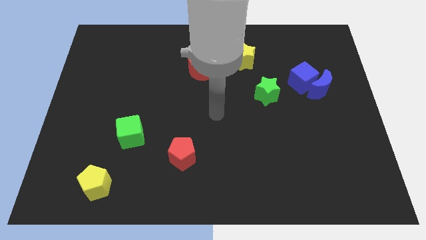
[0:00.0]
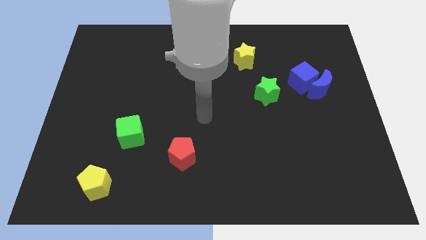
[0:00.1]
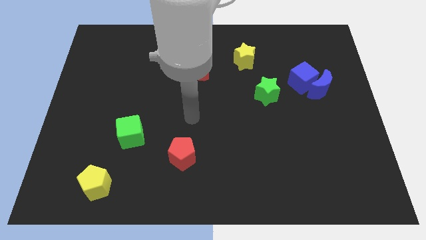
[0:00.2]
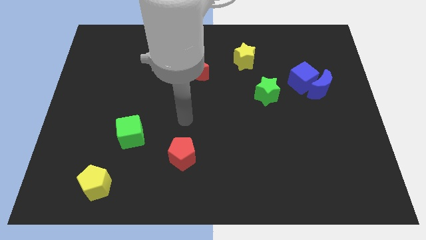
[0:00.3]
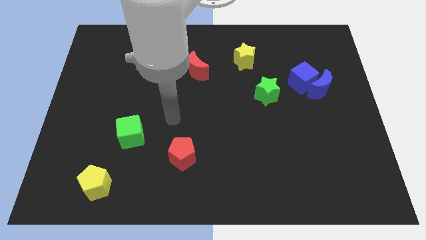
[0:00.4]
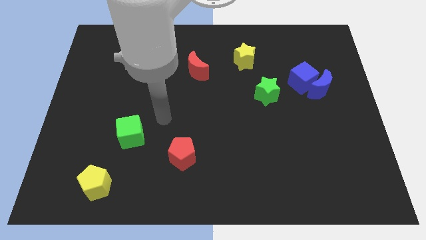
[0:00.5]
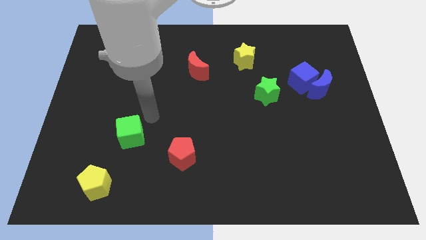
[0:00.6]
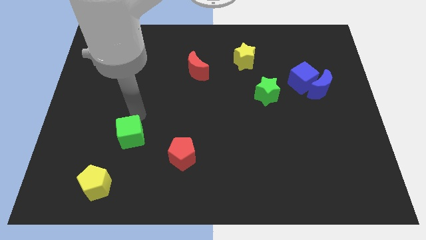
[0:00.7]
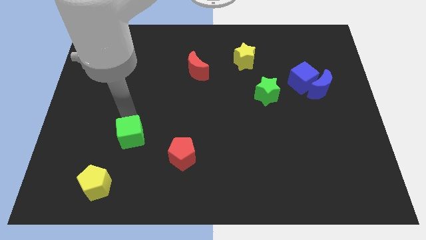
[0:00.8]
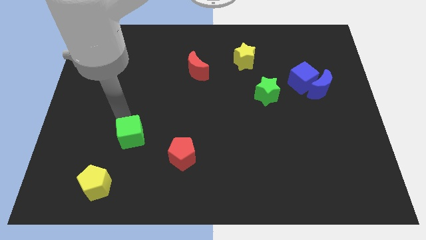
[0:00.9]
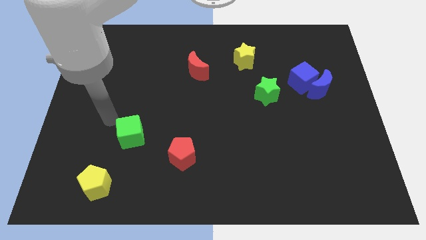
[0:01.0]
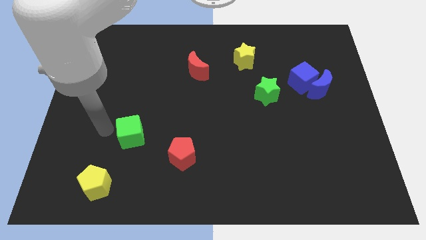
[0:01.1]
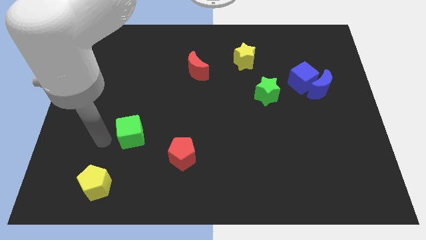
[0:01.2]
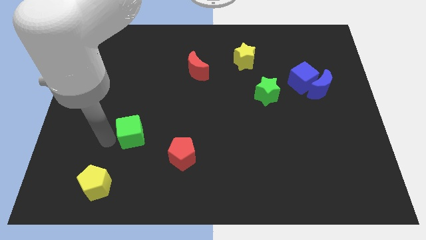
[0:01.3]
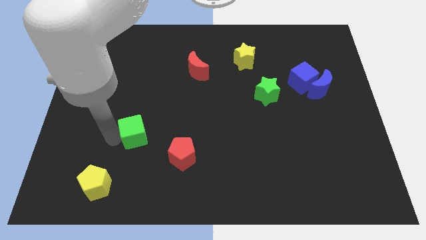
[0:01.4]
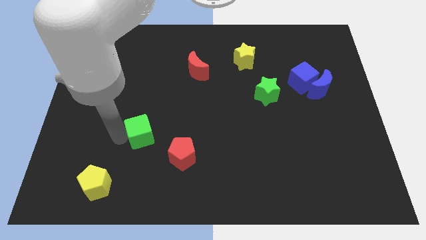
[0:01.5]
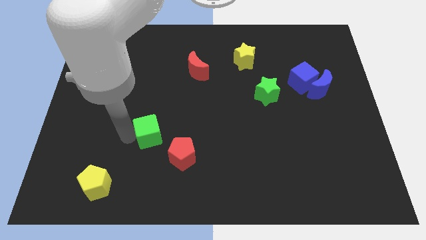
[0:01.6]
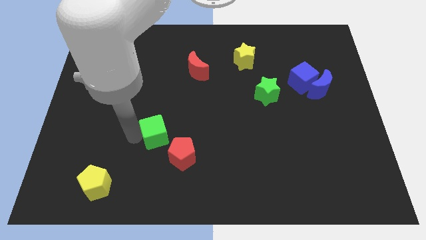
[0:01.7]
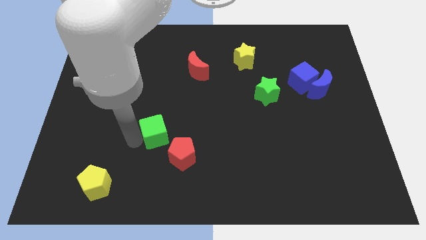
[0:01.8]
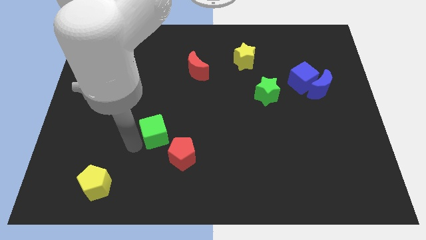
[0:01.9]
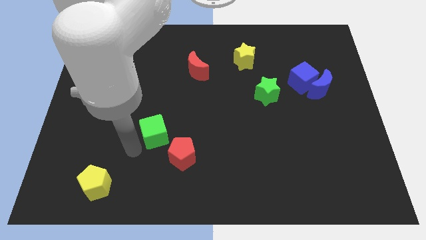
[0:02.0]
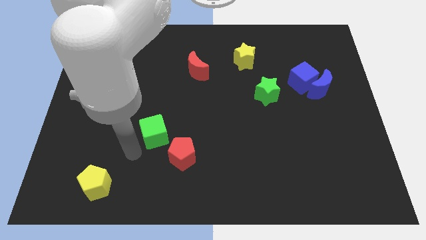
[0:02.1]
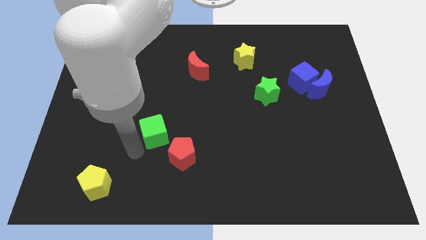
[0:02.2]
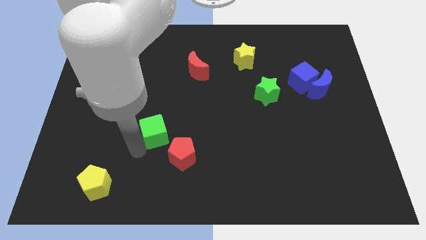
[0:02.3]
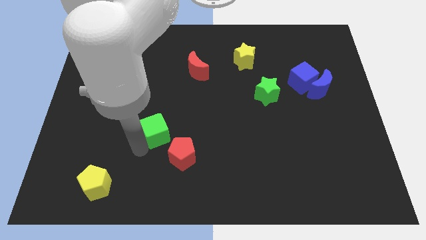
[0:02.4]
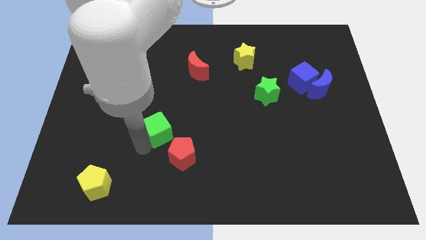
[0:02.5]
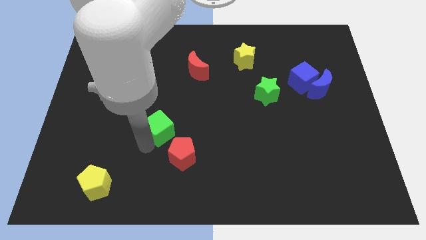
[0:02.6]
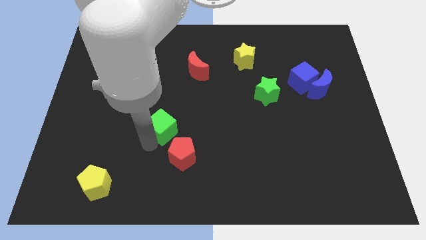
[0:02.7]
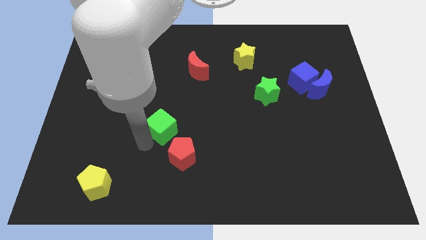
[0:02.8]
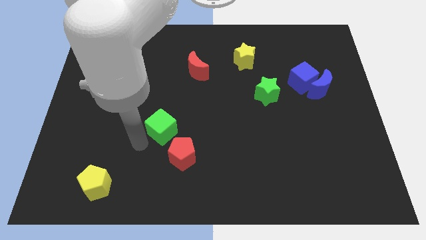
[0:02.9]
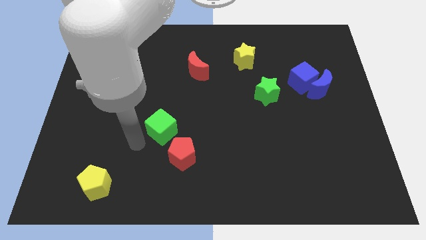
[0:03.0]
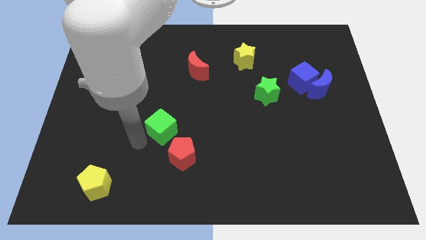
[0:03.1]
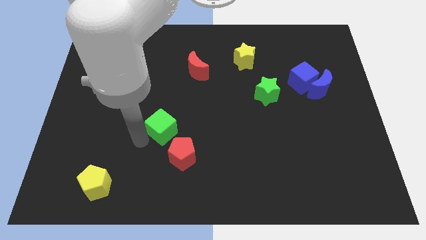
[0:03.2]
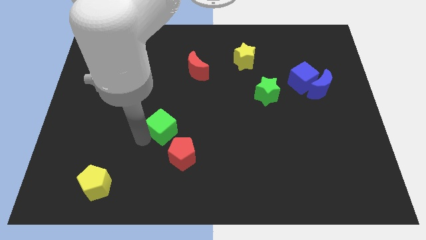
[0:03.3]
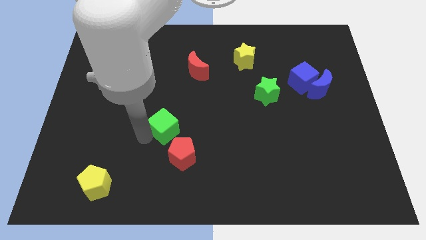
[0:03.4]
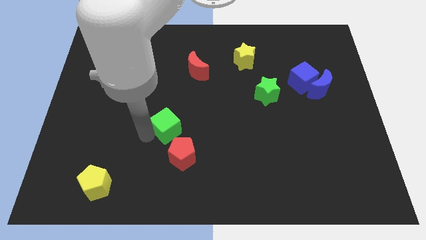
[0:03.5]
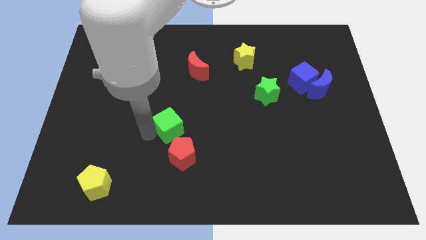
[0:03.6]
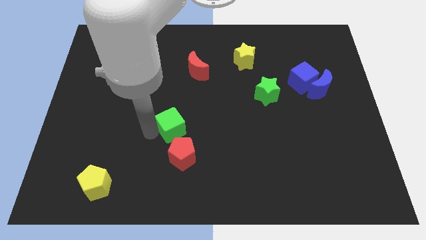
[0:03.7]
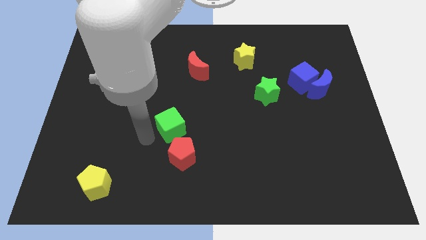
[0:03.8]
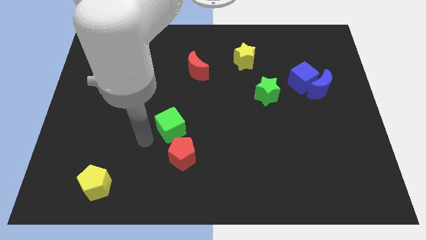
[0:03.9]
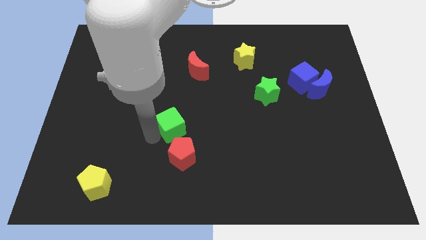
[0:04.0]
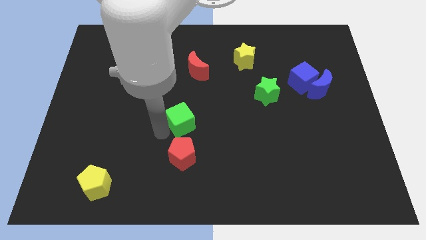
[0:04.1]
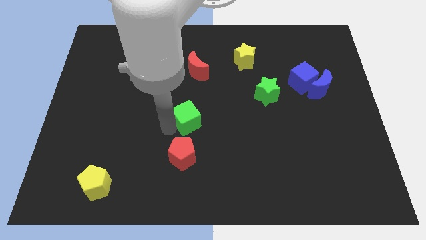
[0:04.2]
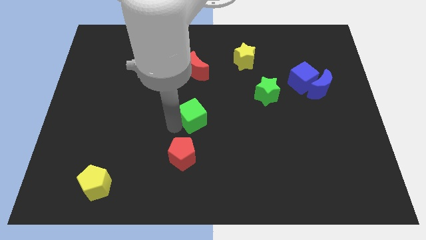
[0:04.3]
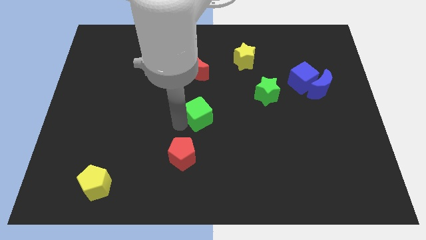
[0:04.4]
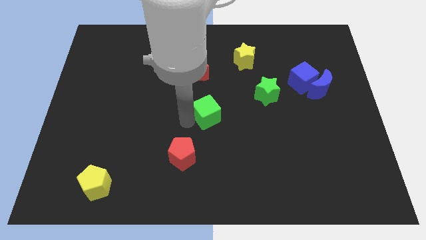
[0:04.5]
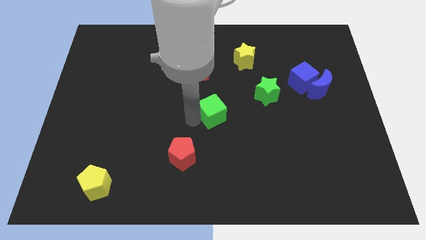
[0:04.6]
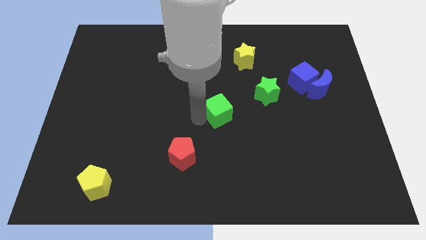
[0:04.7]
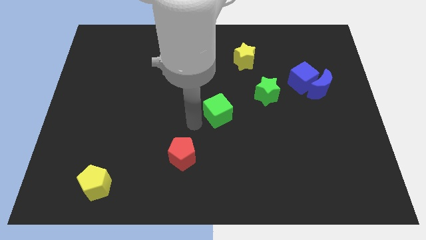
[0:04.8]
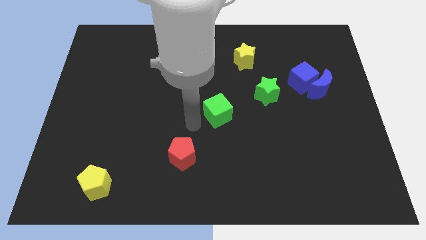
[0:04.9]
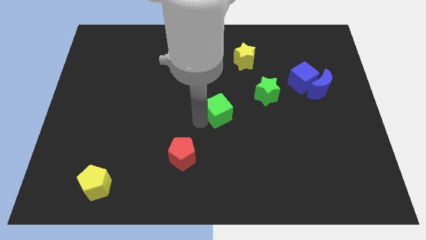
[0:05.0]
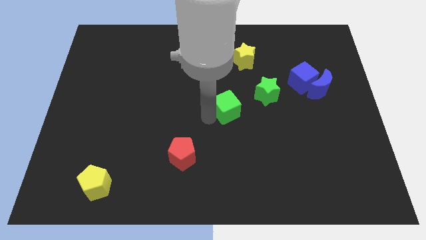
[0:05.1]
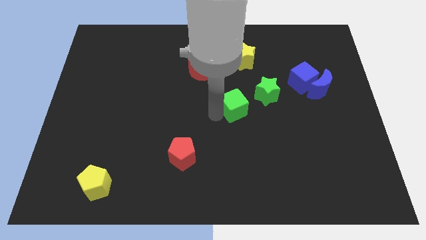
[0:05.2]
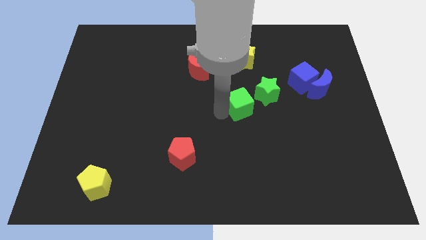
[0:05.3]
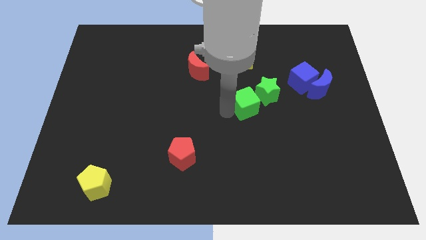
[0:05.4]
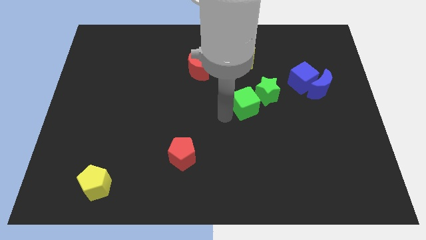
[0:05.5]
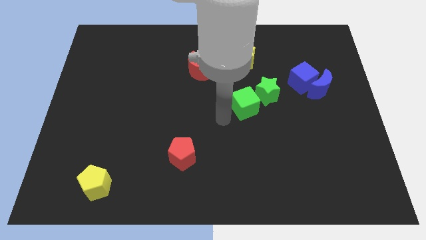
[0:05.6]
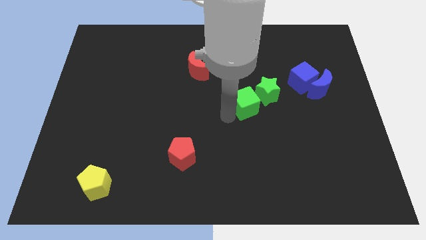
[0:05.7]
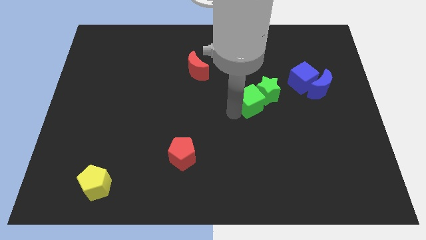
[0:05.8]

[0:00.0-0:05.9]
slide the green cube next to the green star

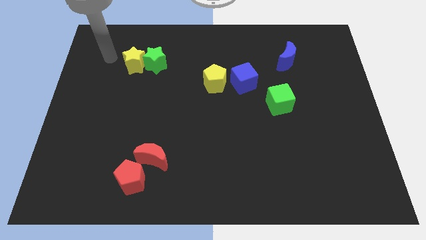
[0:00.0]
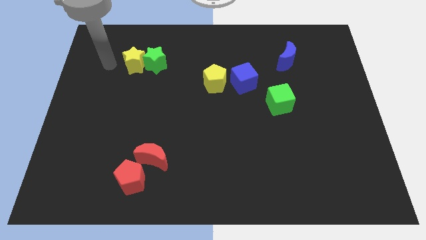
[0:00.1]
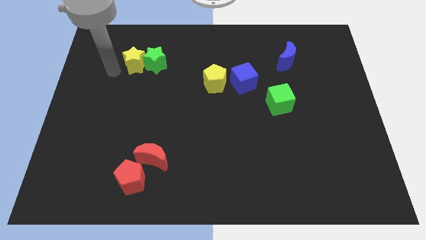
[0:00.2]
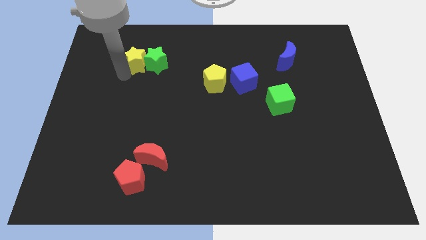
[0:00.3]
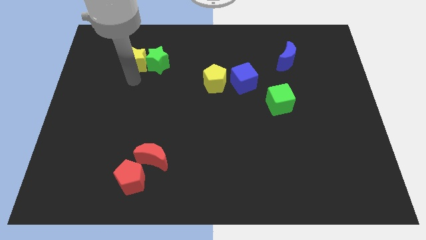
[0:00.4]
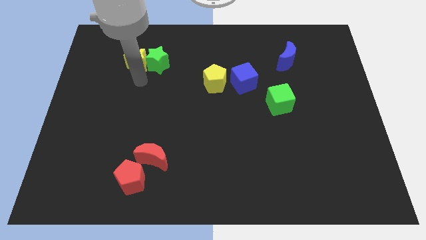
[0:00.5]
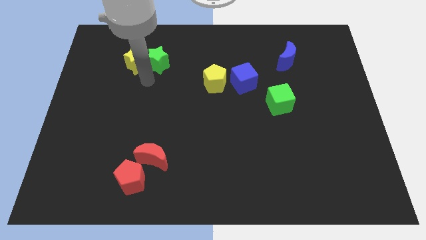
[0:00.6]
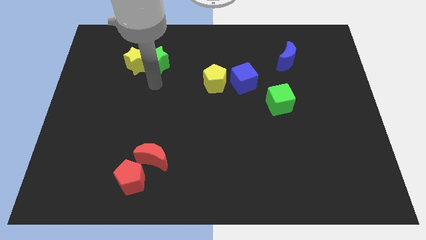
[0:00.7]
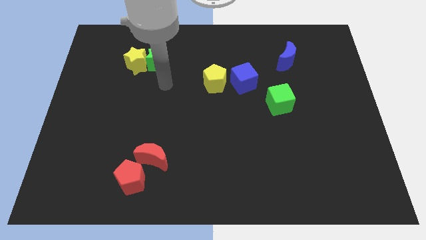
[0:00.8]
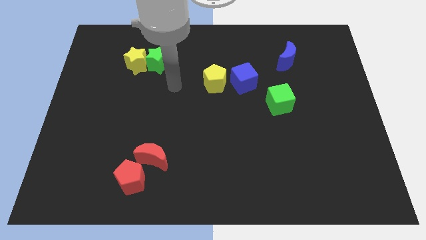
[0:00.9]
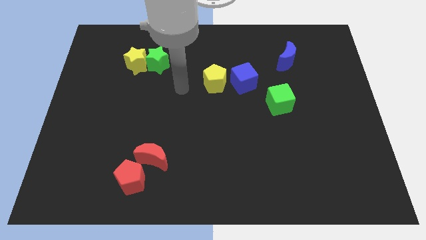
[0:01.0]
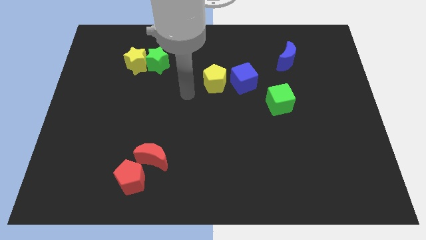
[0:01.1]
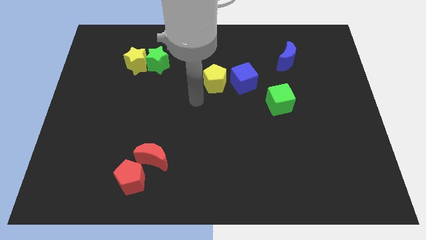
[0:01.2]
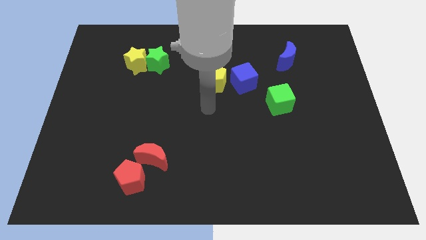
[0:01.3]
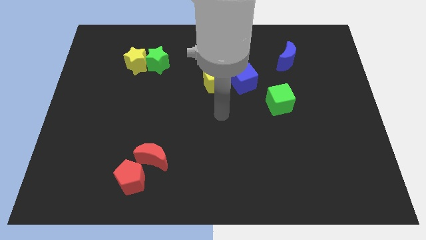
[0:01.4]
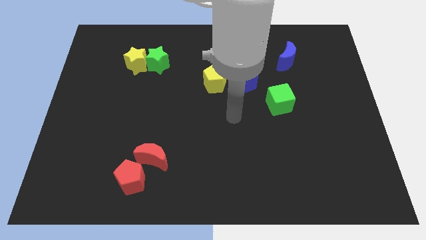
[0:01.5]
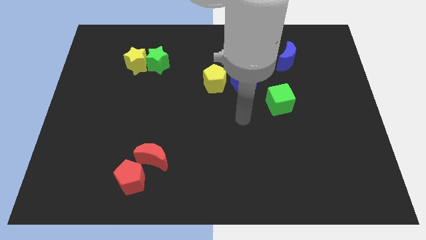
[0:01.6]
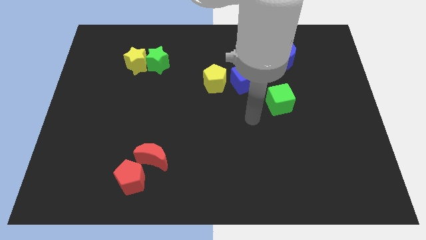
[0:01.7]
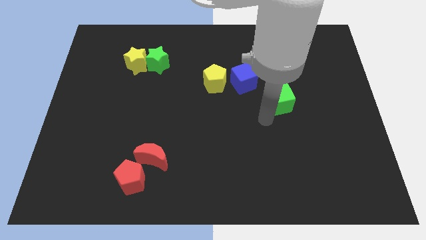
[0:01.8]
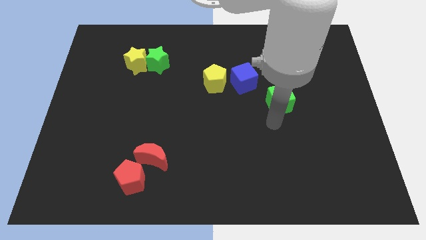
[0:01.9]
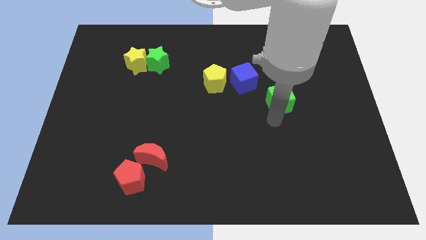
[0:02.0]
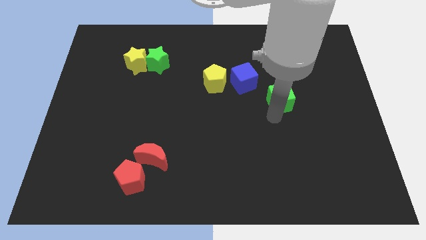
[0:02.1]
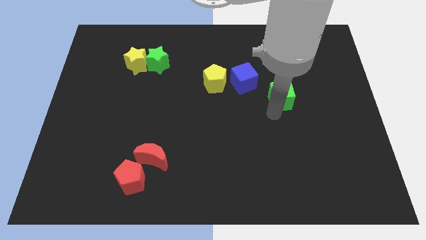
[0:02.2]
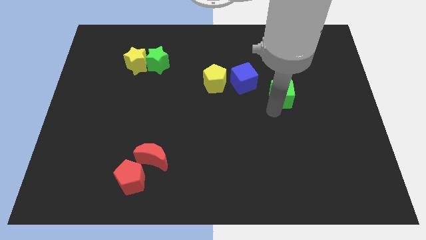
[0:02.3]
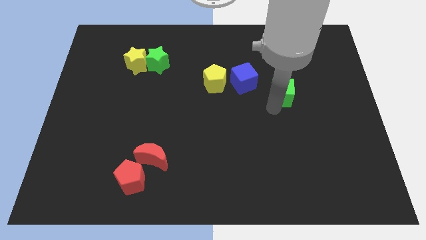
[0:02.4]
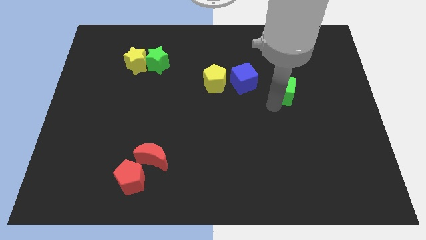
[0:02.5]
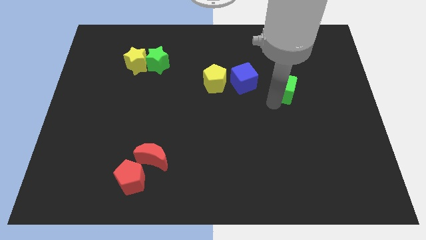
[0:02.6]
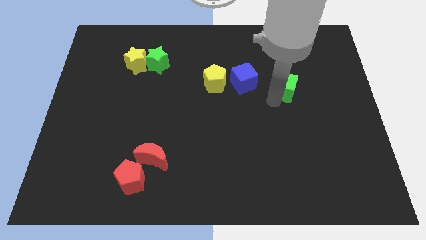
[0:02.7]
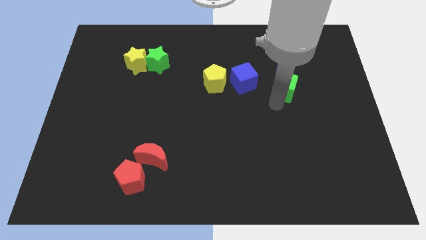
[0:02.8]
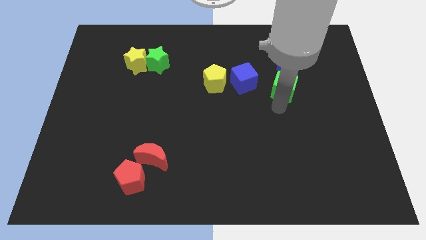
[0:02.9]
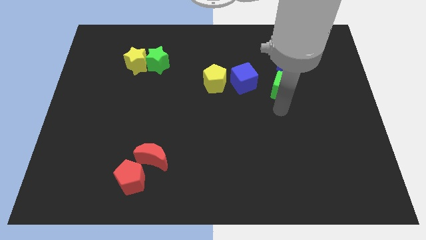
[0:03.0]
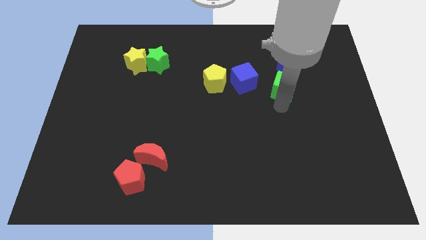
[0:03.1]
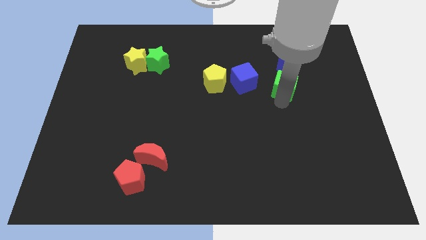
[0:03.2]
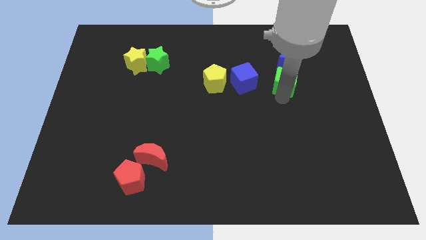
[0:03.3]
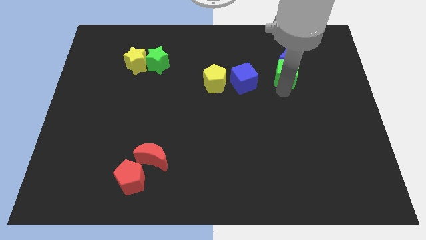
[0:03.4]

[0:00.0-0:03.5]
push the green cube next to the blue moon
